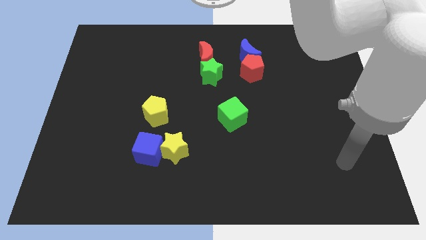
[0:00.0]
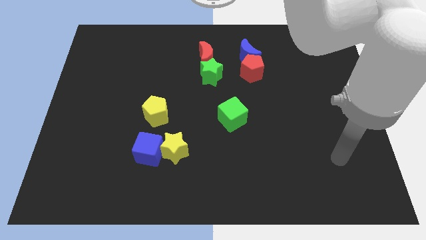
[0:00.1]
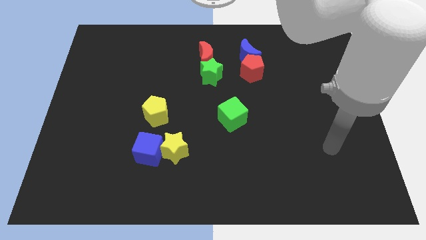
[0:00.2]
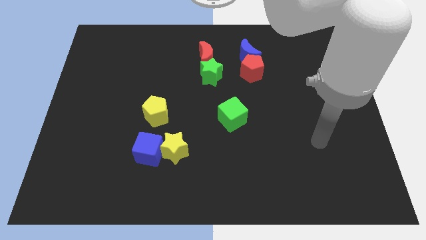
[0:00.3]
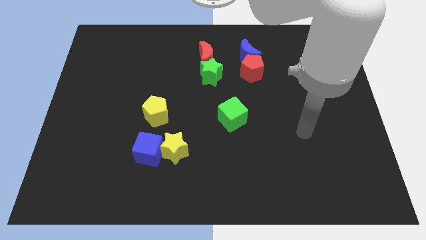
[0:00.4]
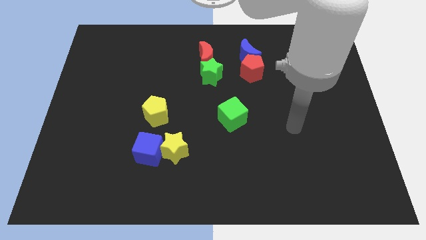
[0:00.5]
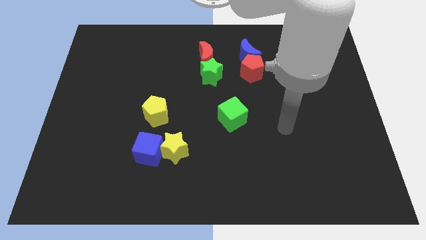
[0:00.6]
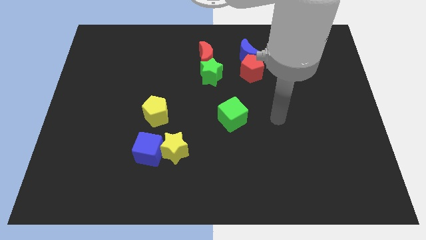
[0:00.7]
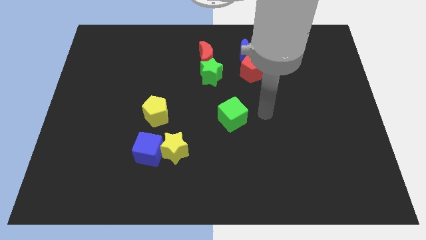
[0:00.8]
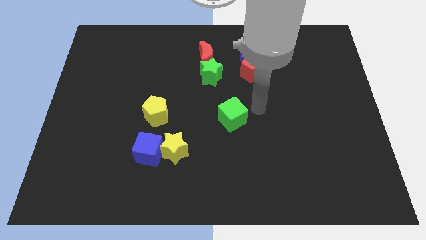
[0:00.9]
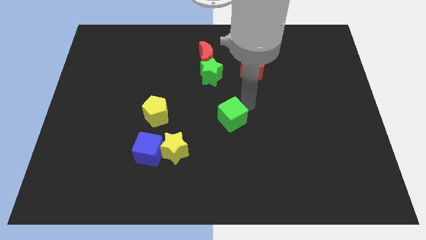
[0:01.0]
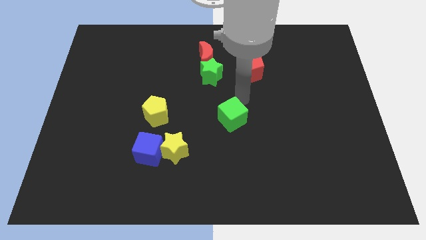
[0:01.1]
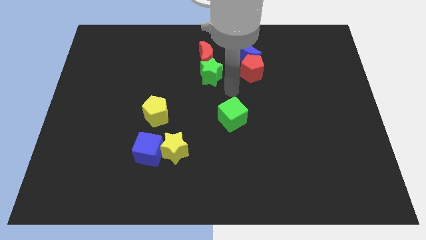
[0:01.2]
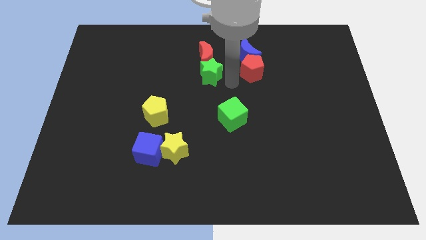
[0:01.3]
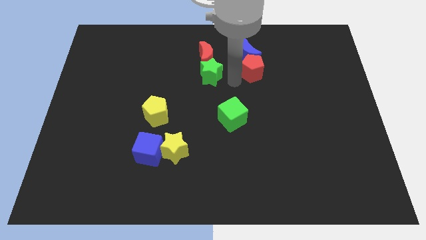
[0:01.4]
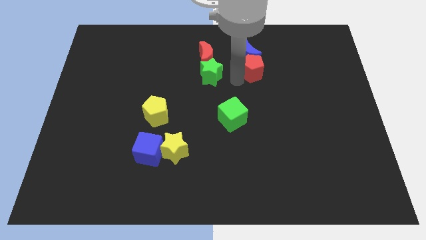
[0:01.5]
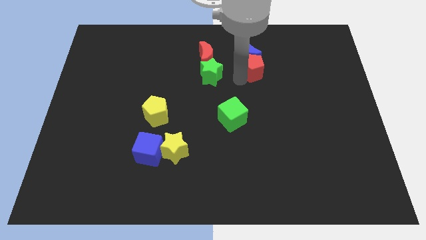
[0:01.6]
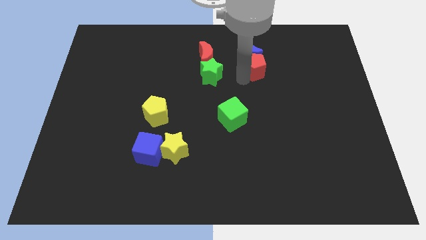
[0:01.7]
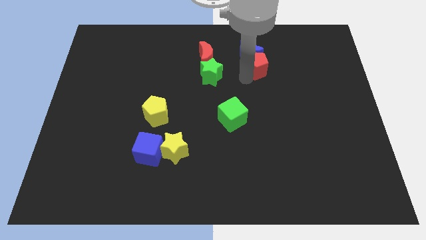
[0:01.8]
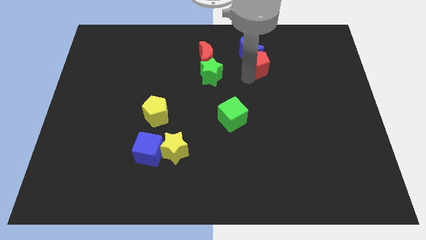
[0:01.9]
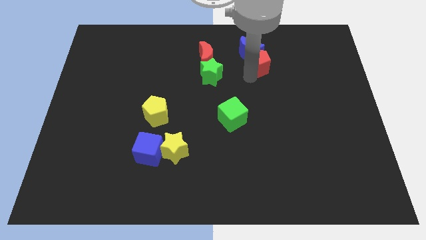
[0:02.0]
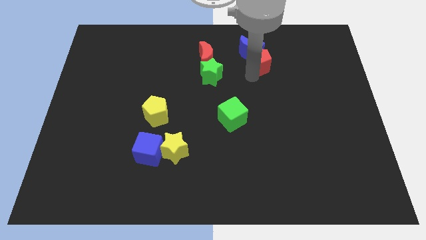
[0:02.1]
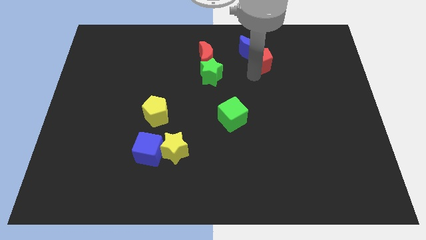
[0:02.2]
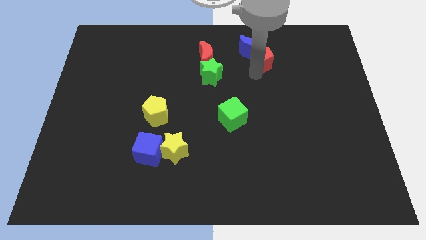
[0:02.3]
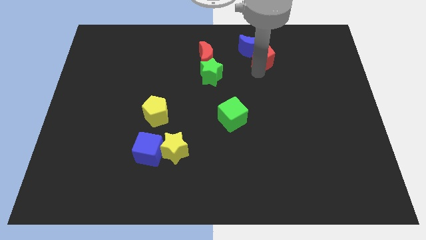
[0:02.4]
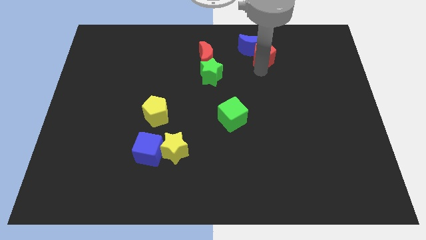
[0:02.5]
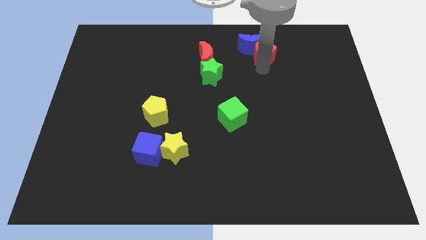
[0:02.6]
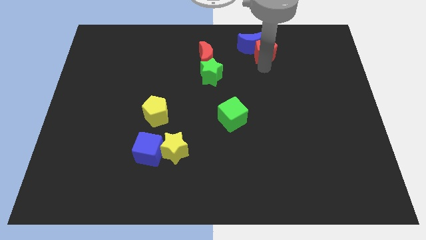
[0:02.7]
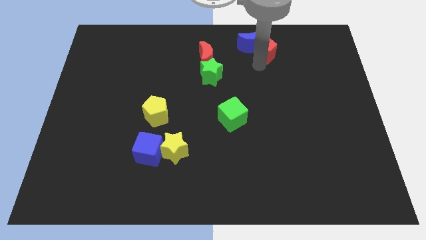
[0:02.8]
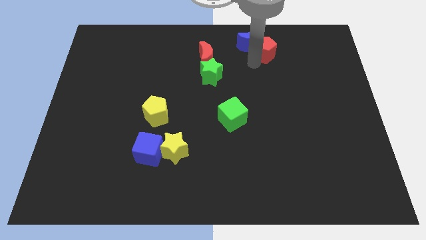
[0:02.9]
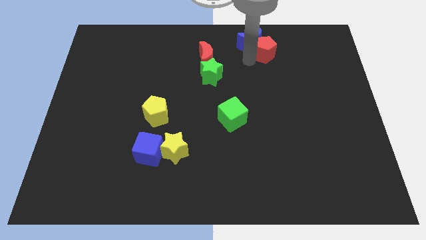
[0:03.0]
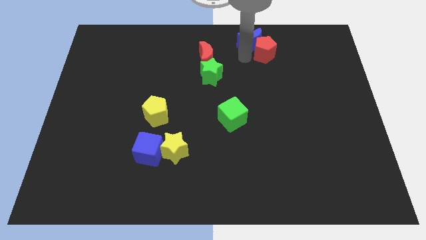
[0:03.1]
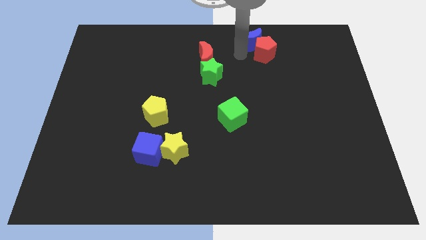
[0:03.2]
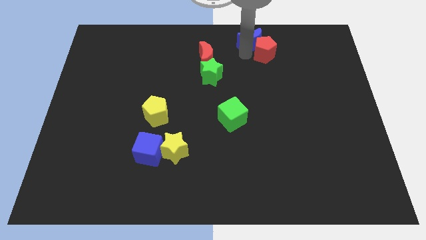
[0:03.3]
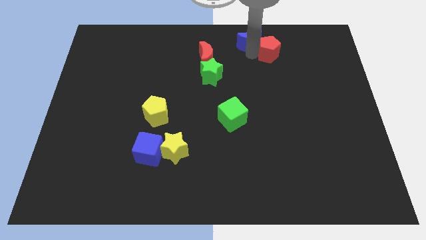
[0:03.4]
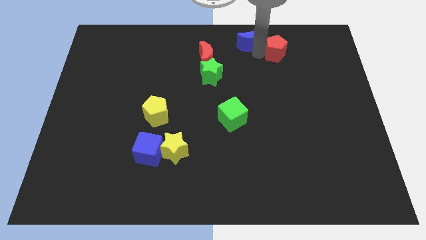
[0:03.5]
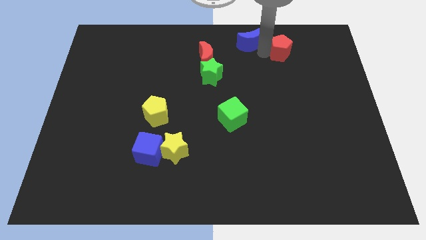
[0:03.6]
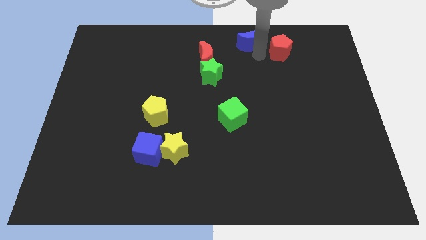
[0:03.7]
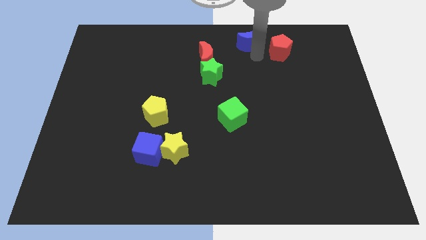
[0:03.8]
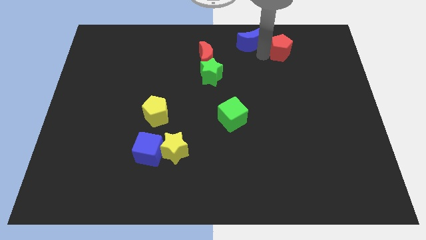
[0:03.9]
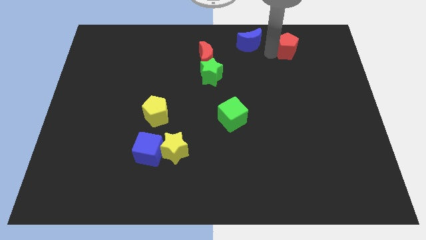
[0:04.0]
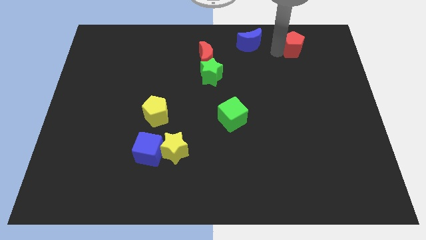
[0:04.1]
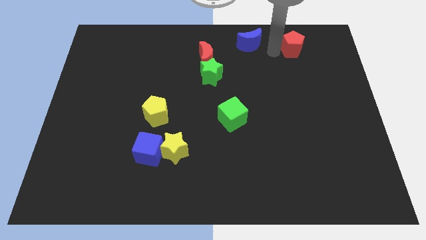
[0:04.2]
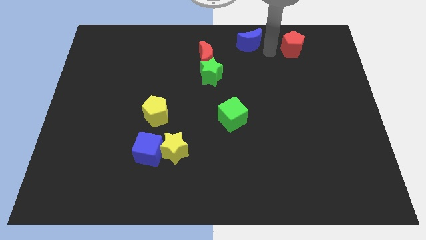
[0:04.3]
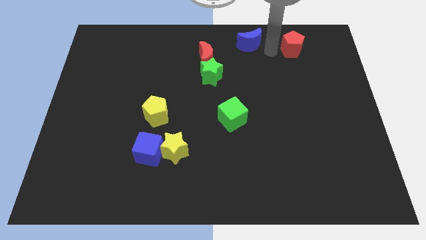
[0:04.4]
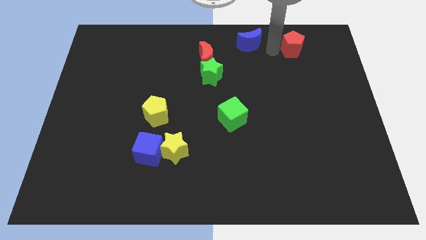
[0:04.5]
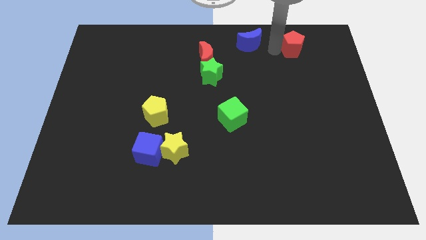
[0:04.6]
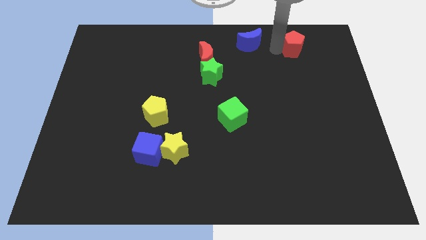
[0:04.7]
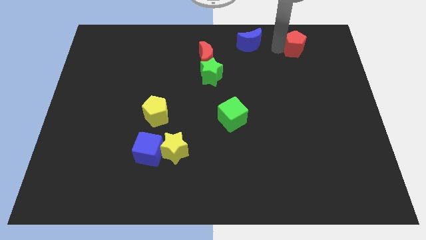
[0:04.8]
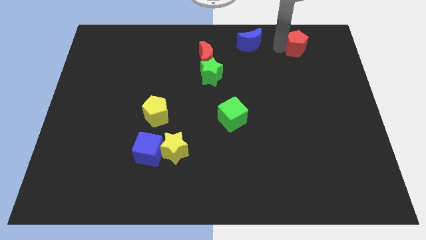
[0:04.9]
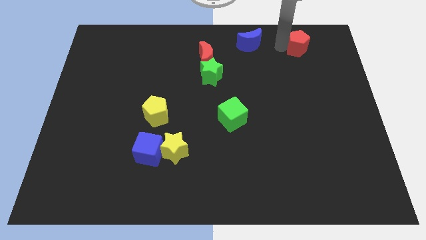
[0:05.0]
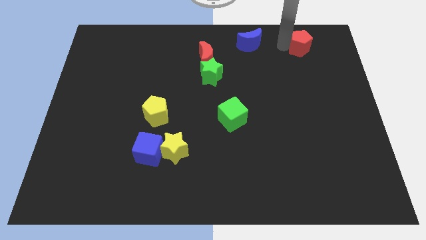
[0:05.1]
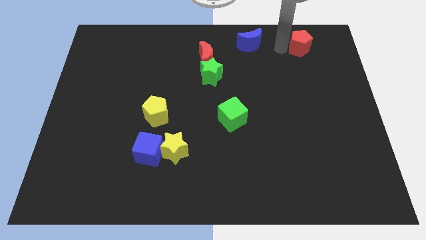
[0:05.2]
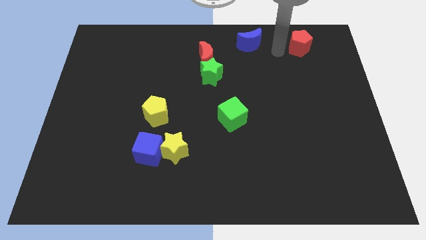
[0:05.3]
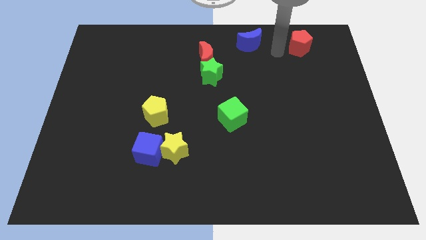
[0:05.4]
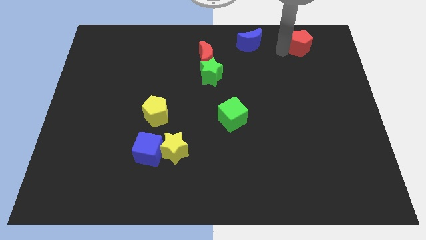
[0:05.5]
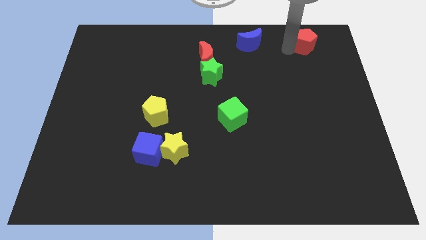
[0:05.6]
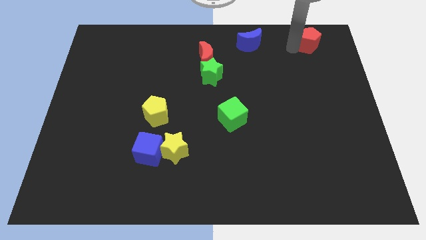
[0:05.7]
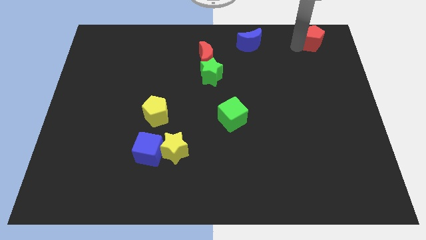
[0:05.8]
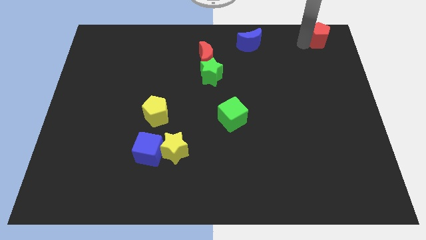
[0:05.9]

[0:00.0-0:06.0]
move the red pentagon to the top right corner

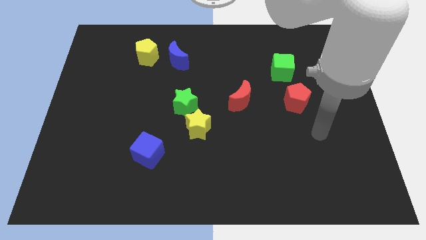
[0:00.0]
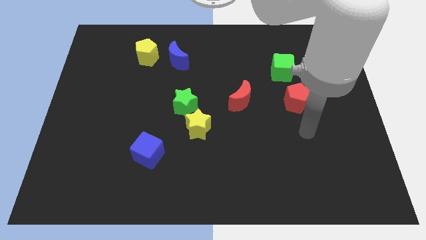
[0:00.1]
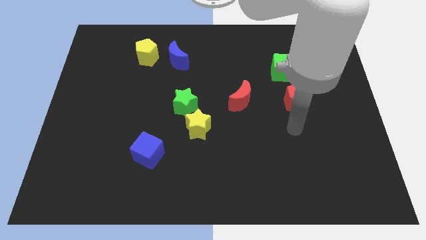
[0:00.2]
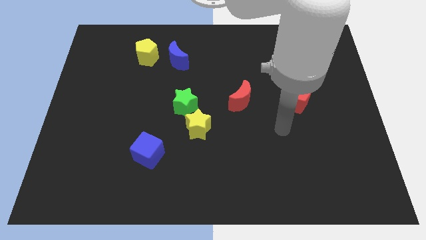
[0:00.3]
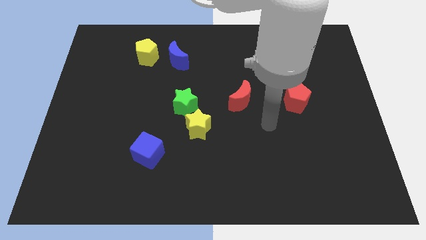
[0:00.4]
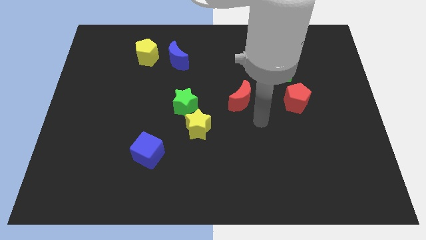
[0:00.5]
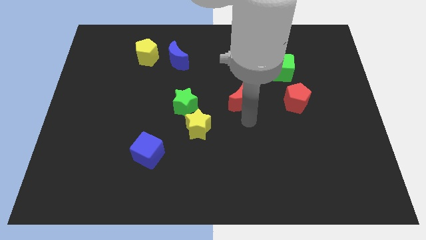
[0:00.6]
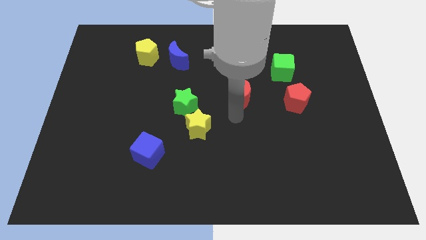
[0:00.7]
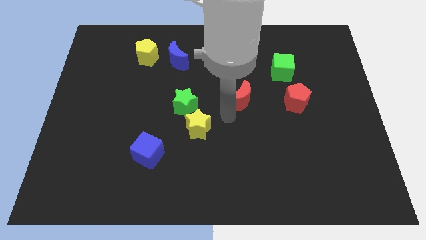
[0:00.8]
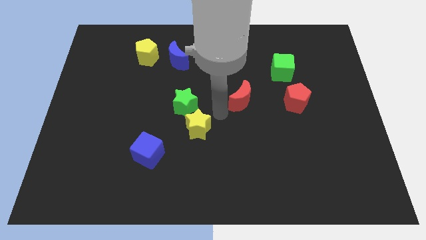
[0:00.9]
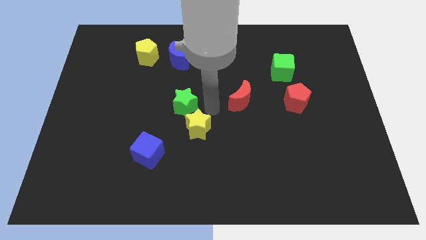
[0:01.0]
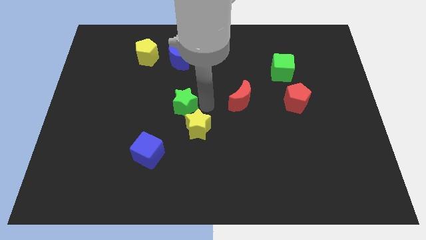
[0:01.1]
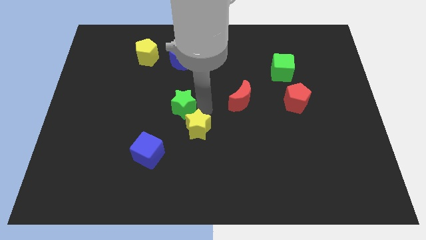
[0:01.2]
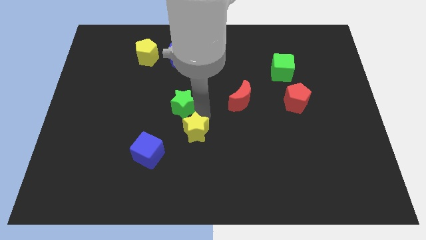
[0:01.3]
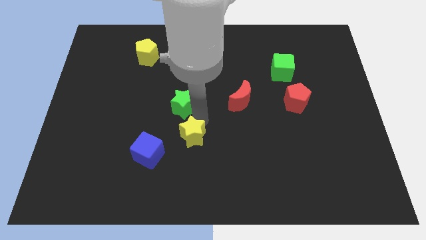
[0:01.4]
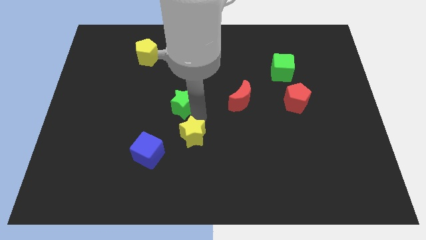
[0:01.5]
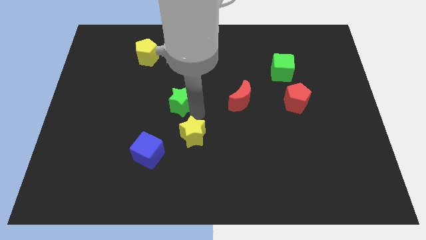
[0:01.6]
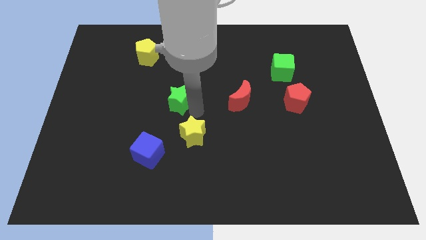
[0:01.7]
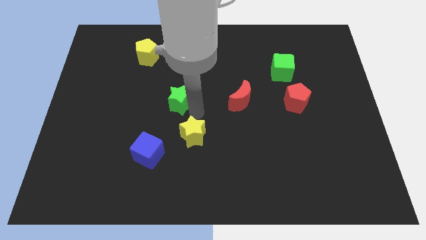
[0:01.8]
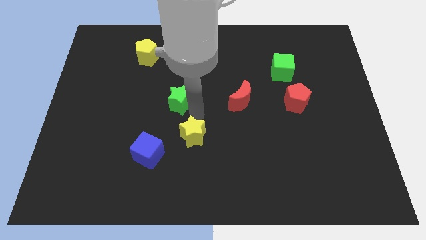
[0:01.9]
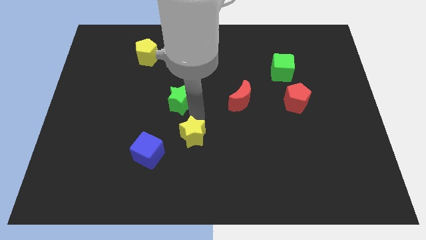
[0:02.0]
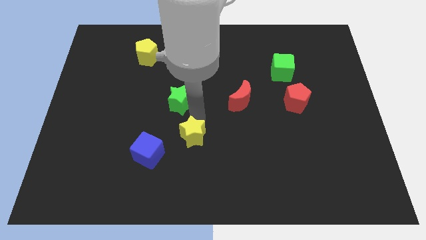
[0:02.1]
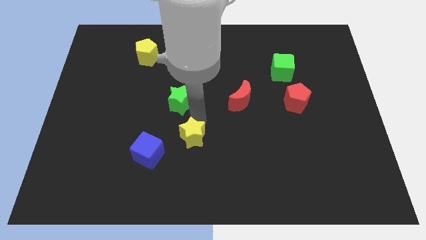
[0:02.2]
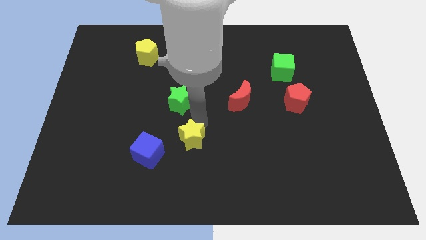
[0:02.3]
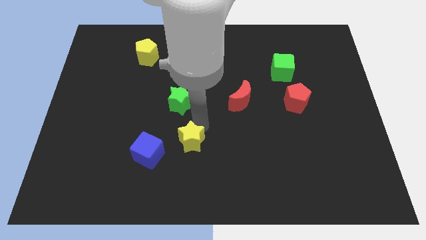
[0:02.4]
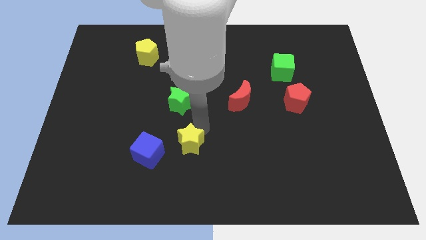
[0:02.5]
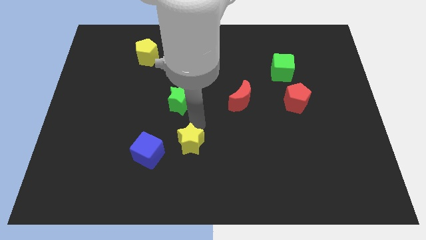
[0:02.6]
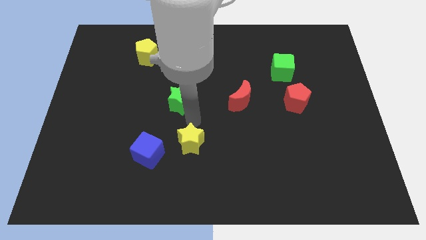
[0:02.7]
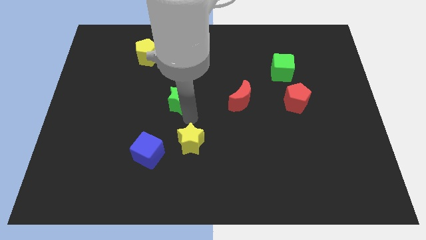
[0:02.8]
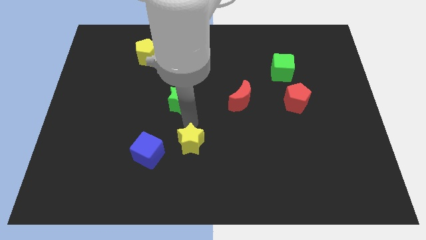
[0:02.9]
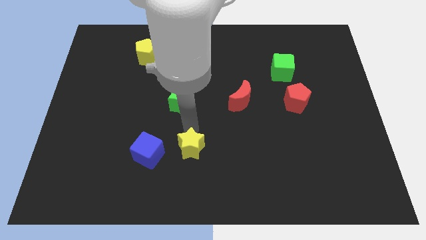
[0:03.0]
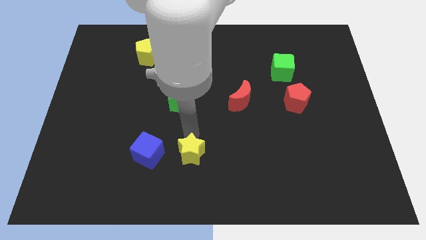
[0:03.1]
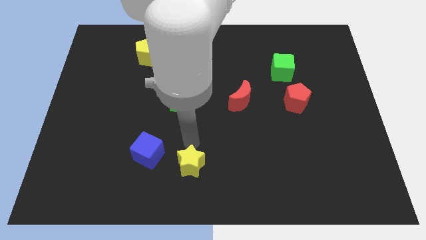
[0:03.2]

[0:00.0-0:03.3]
push the yellow star to the bottom
